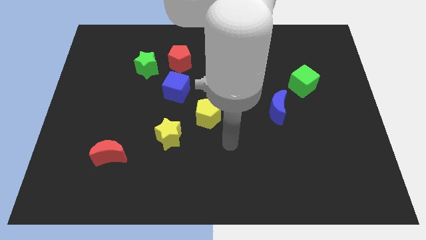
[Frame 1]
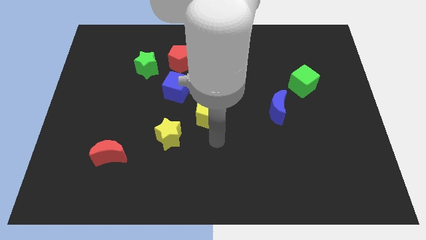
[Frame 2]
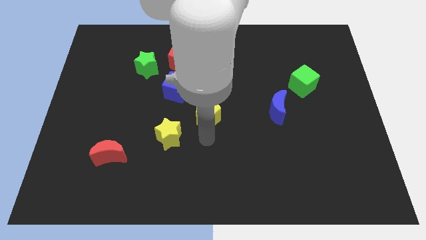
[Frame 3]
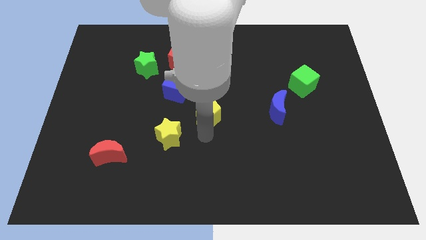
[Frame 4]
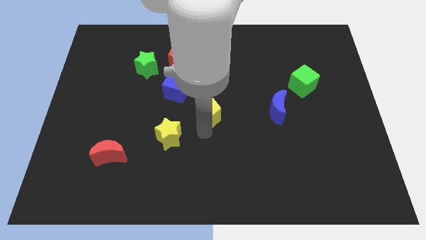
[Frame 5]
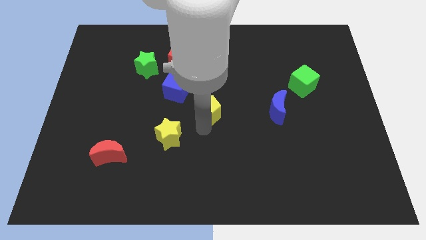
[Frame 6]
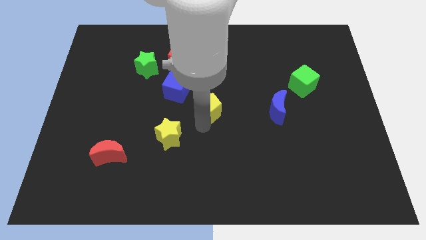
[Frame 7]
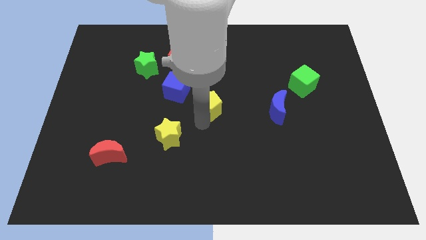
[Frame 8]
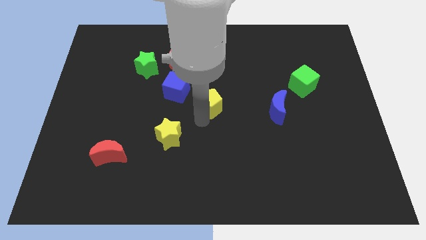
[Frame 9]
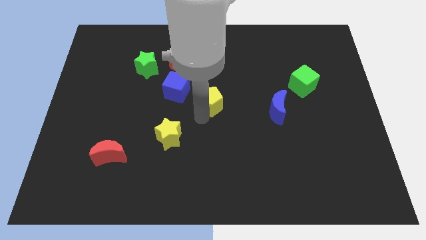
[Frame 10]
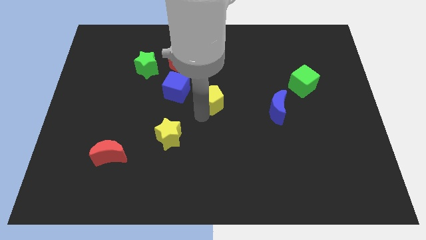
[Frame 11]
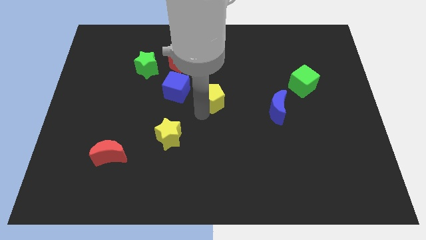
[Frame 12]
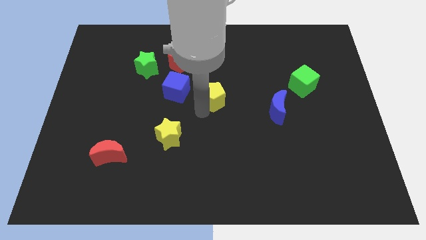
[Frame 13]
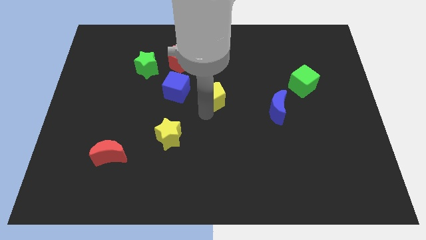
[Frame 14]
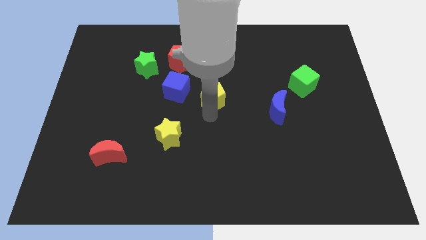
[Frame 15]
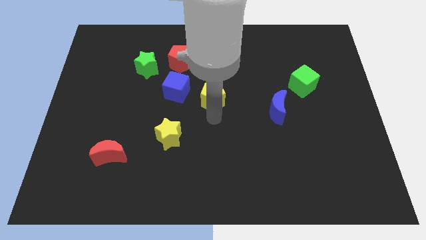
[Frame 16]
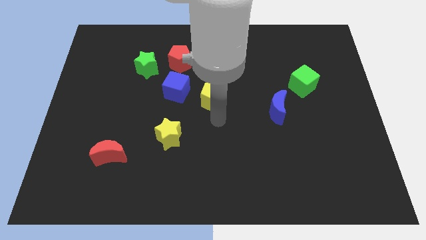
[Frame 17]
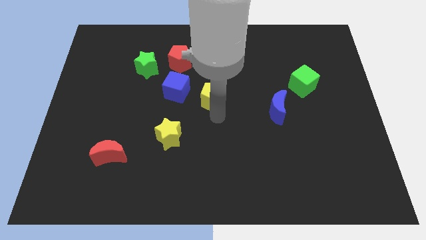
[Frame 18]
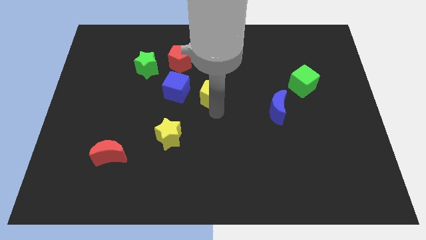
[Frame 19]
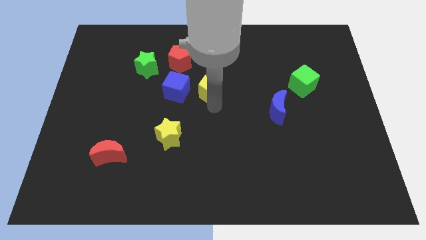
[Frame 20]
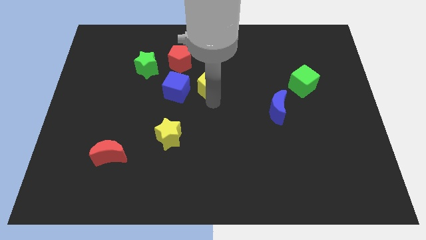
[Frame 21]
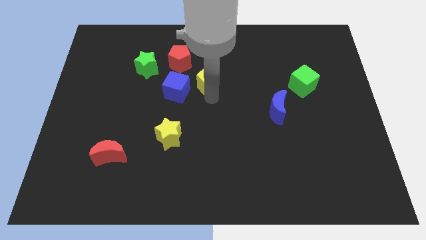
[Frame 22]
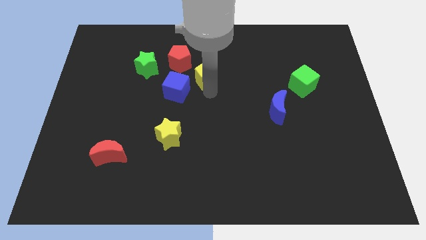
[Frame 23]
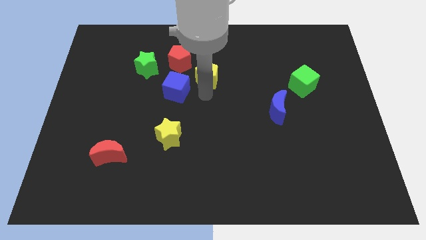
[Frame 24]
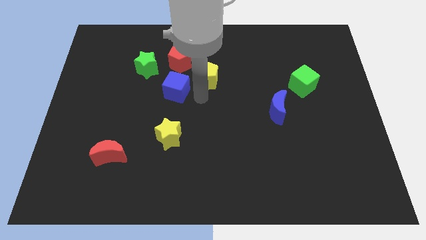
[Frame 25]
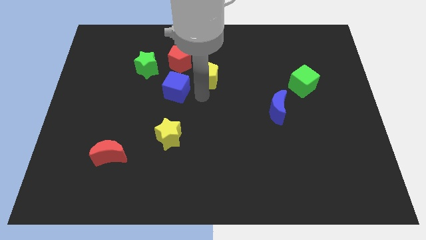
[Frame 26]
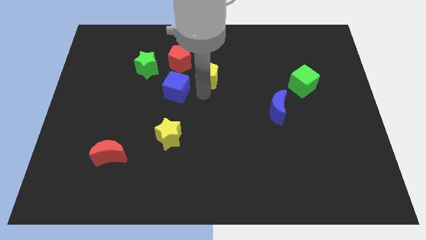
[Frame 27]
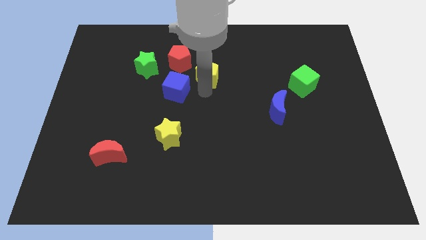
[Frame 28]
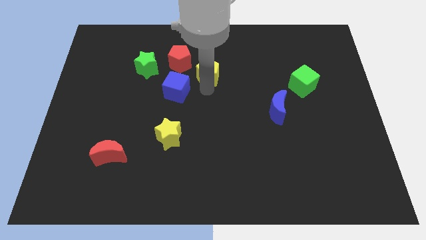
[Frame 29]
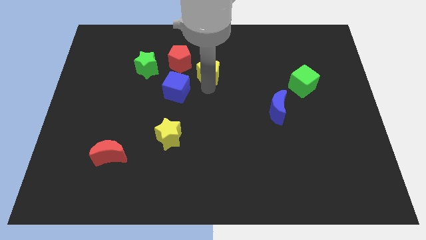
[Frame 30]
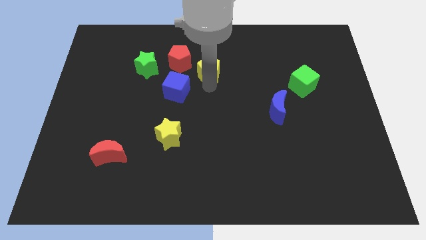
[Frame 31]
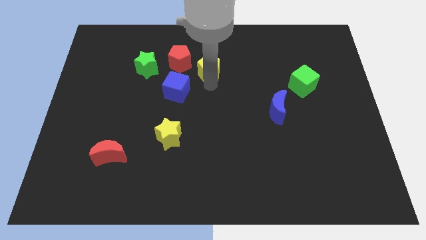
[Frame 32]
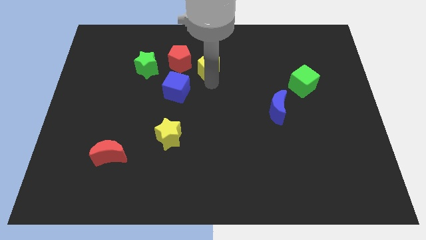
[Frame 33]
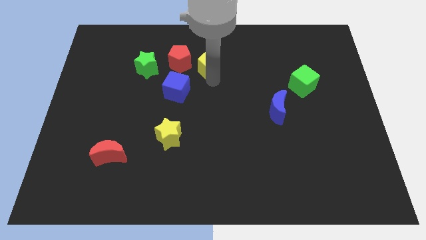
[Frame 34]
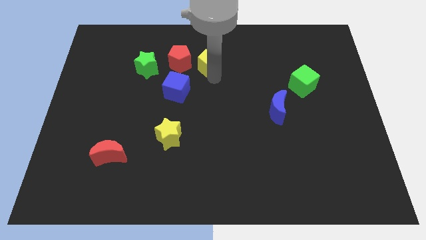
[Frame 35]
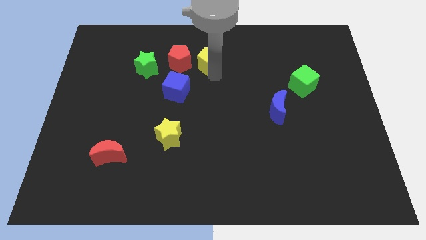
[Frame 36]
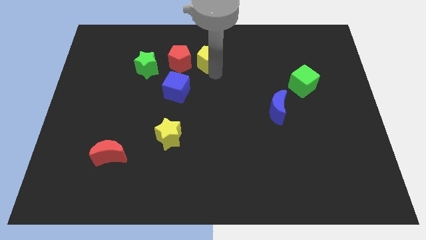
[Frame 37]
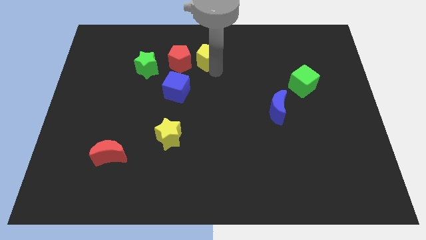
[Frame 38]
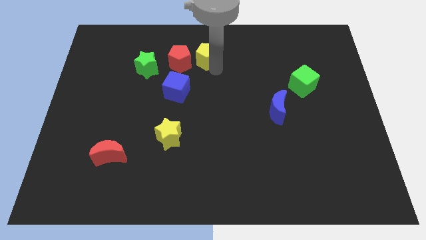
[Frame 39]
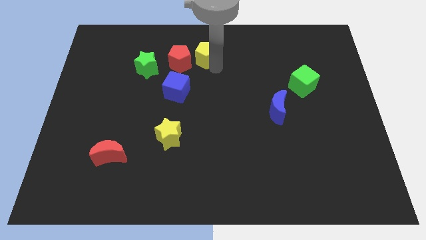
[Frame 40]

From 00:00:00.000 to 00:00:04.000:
push the yellow pentagon to the towards your base

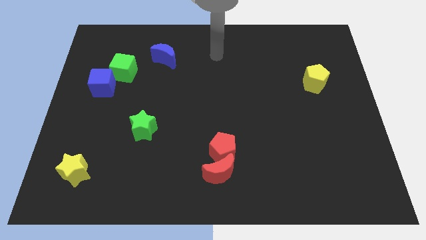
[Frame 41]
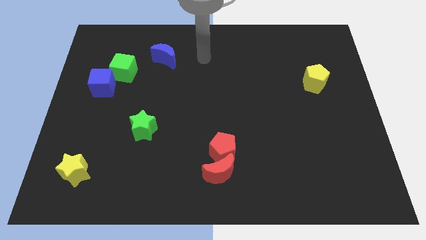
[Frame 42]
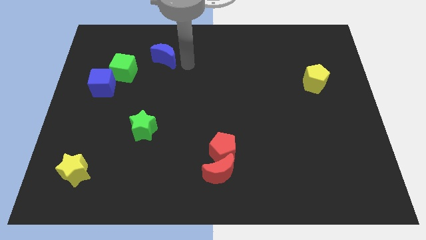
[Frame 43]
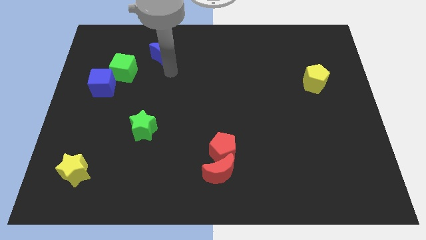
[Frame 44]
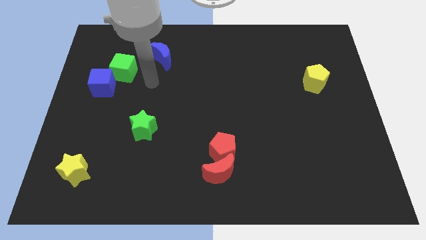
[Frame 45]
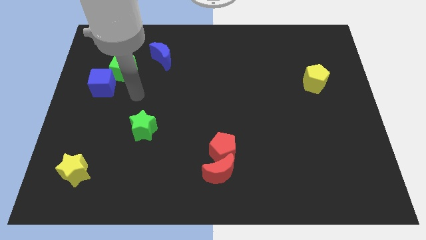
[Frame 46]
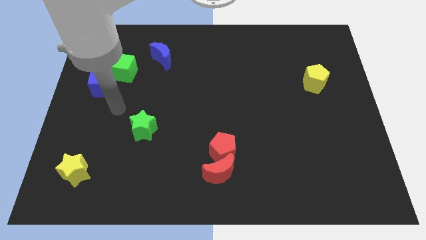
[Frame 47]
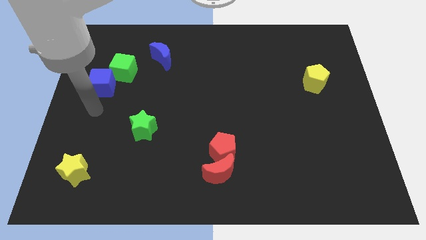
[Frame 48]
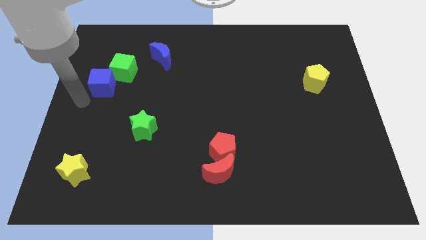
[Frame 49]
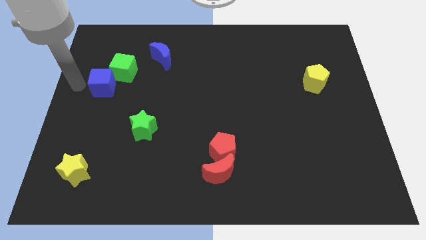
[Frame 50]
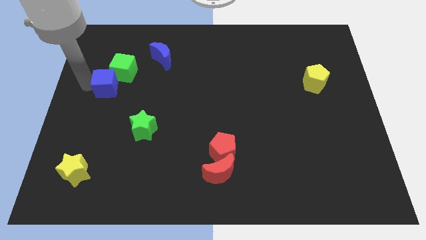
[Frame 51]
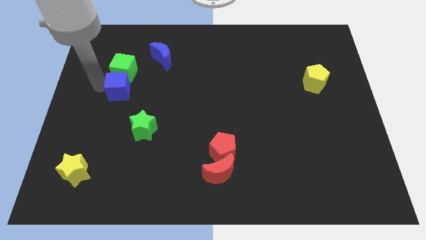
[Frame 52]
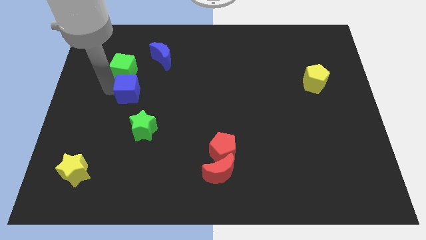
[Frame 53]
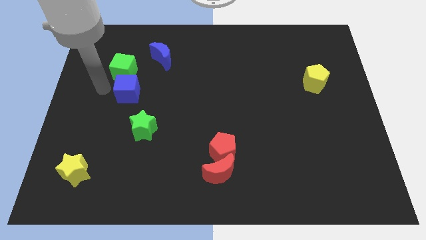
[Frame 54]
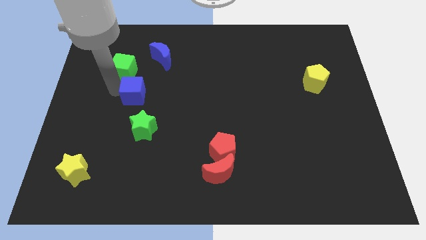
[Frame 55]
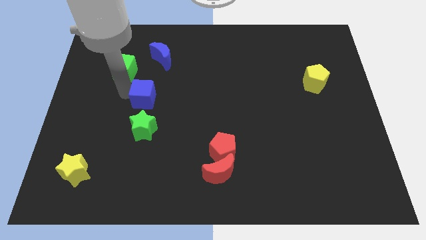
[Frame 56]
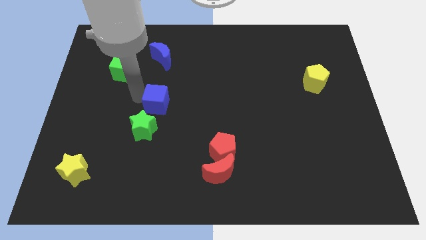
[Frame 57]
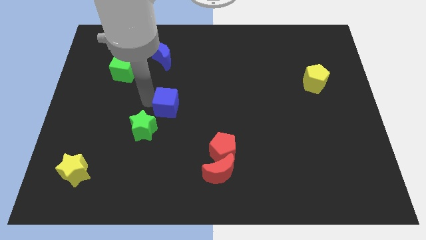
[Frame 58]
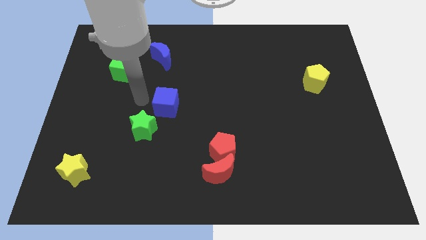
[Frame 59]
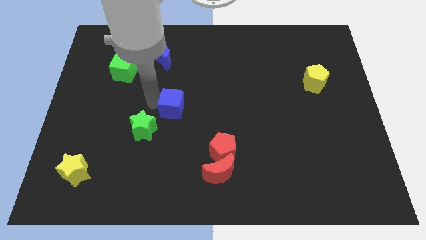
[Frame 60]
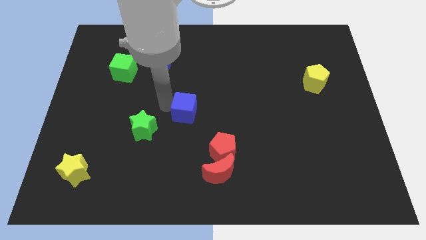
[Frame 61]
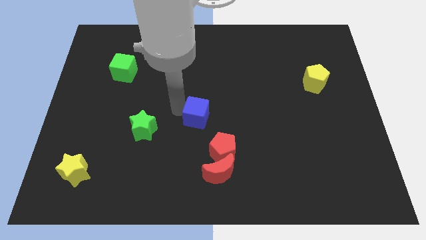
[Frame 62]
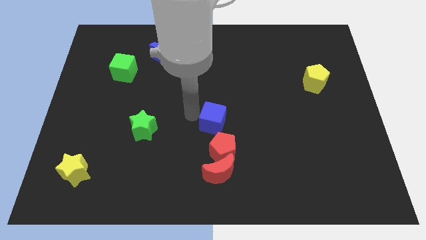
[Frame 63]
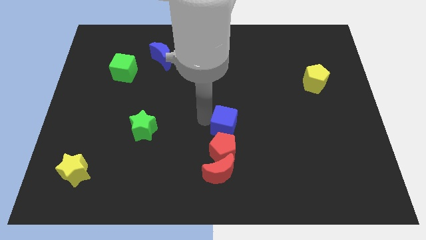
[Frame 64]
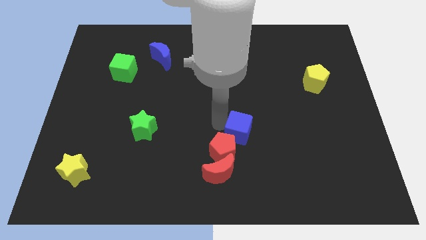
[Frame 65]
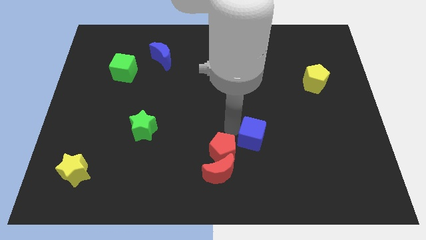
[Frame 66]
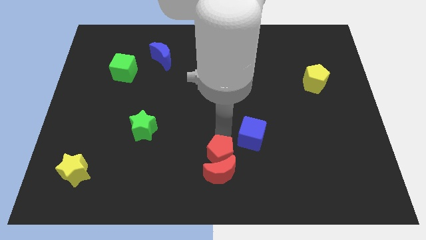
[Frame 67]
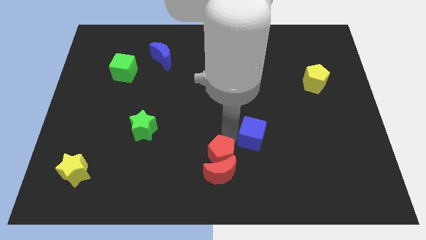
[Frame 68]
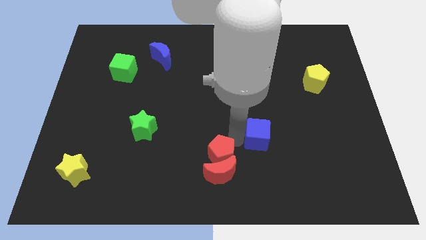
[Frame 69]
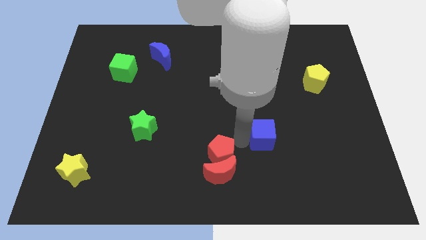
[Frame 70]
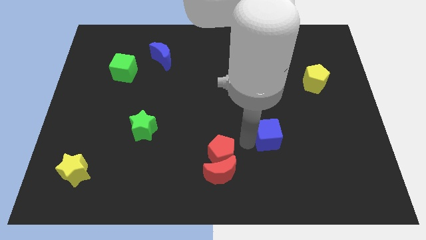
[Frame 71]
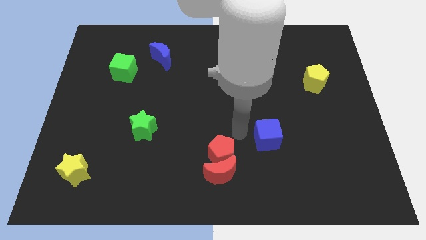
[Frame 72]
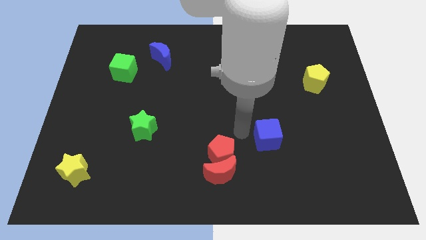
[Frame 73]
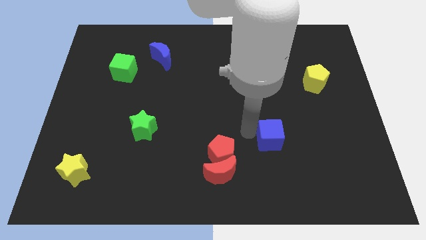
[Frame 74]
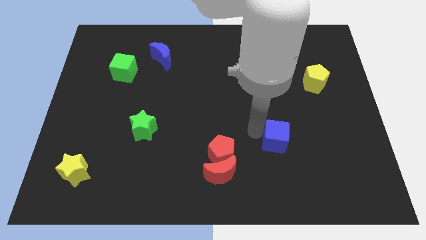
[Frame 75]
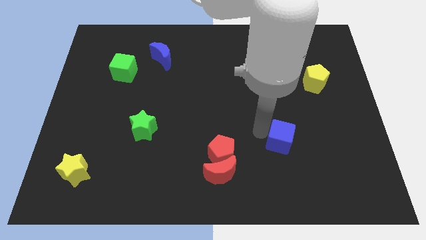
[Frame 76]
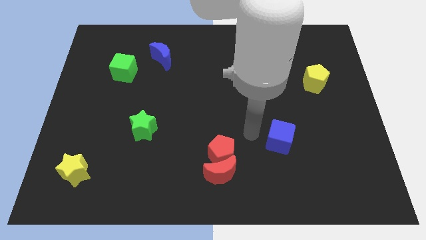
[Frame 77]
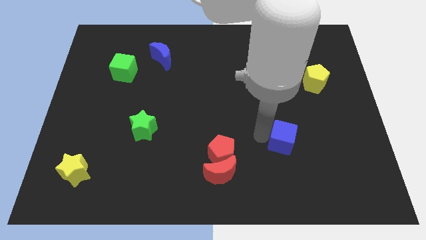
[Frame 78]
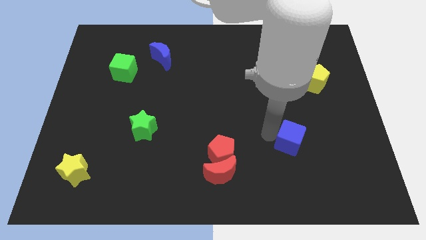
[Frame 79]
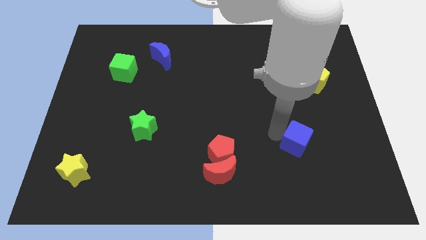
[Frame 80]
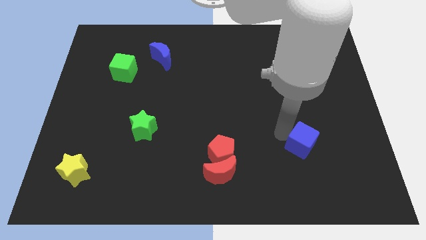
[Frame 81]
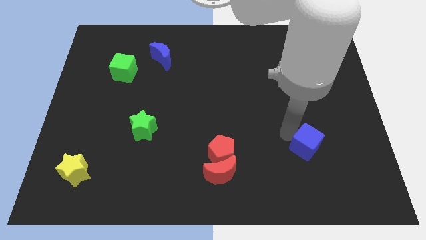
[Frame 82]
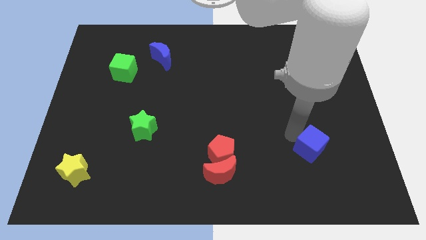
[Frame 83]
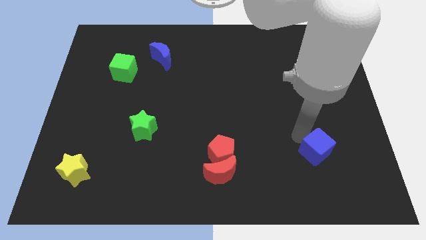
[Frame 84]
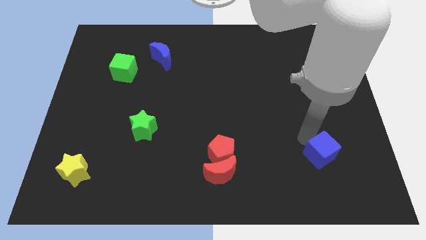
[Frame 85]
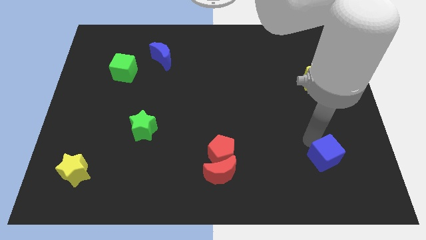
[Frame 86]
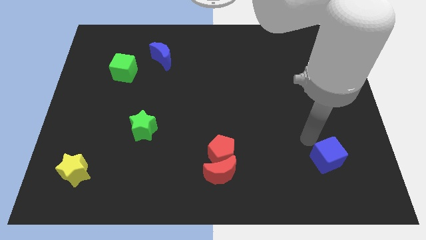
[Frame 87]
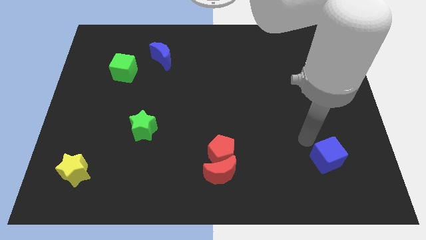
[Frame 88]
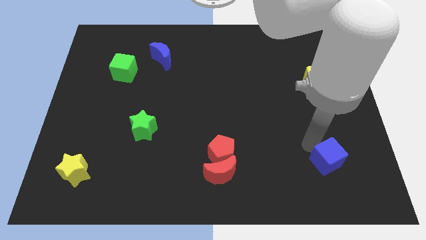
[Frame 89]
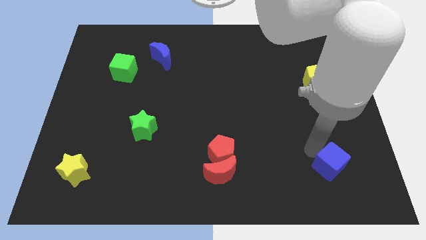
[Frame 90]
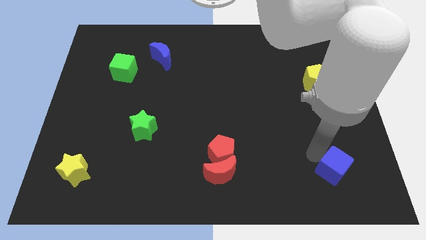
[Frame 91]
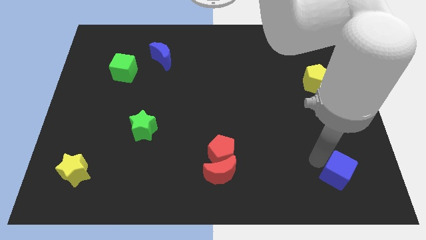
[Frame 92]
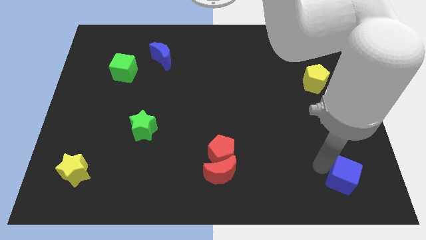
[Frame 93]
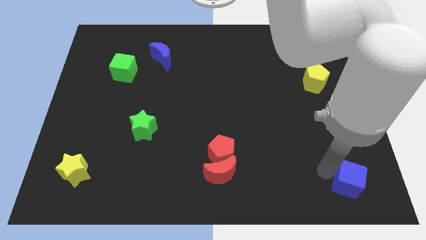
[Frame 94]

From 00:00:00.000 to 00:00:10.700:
move the blue cube to the bottom right of the board
